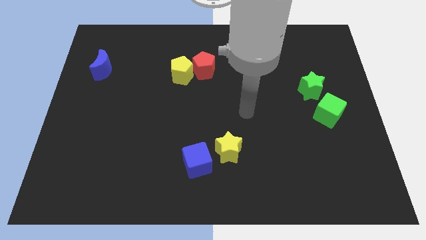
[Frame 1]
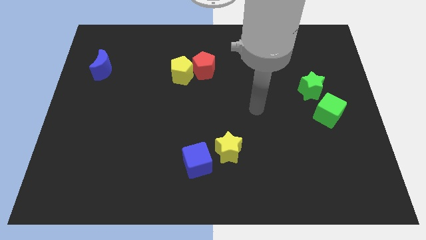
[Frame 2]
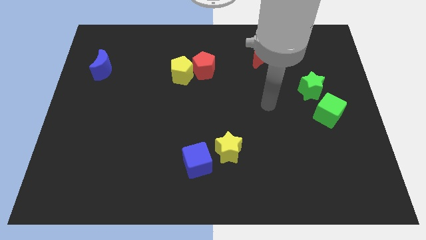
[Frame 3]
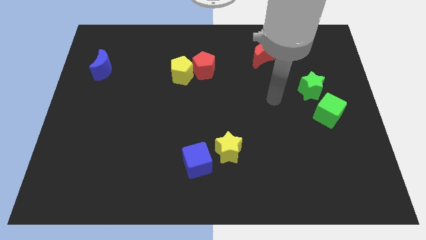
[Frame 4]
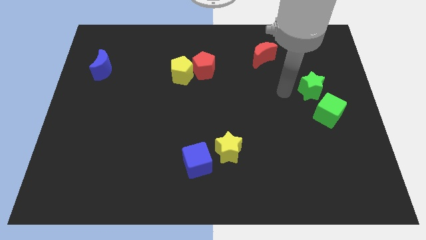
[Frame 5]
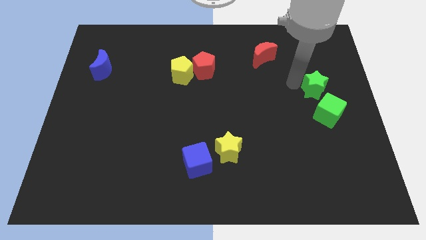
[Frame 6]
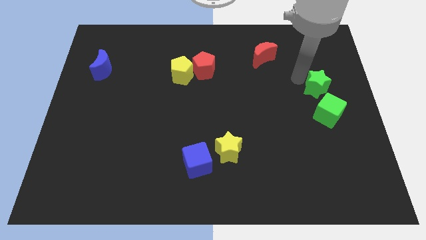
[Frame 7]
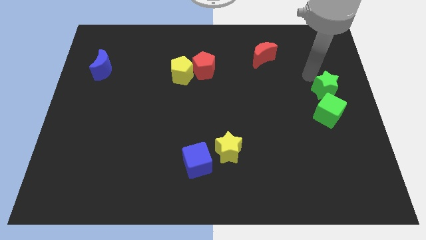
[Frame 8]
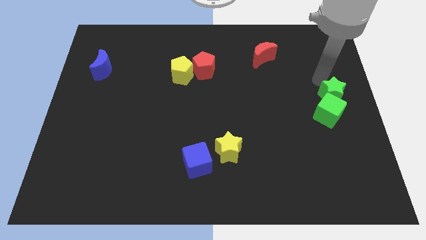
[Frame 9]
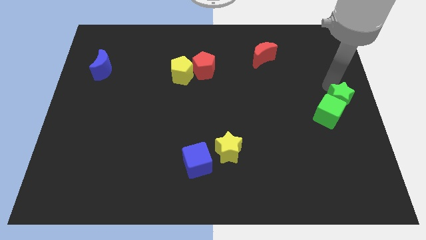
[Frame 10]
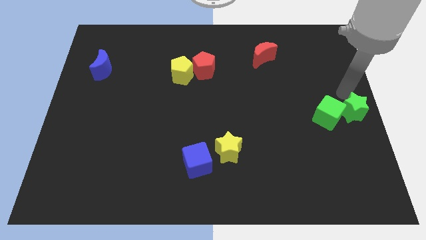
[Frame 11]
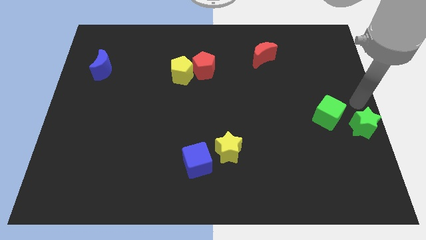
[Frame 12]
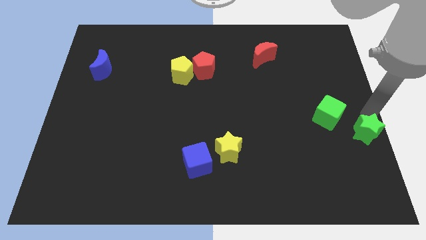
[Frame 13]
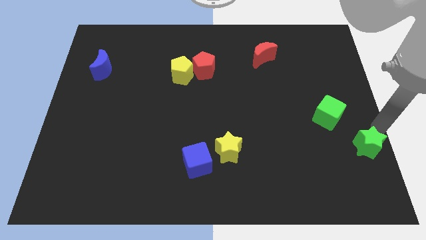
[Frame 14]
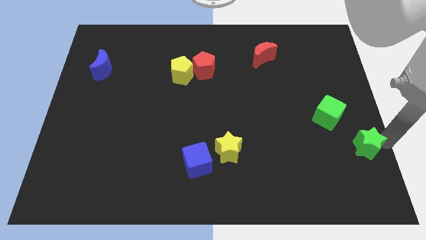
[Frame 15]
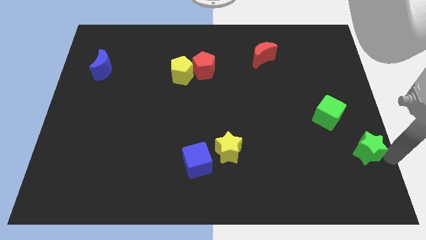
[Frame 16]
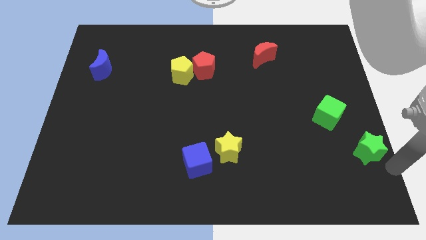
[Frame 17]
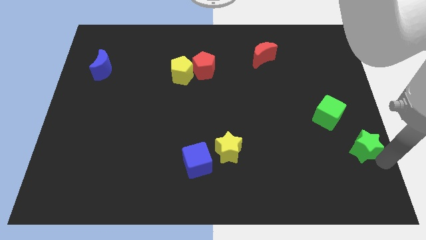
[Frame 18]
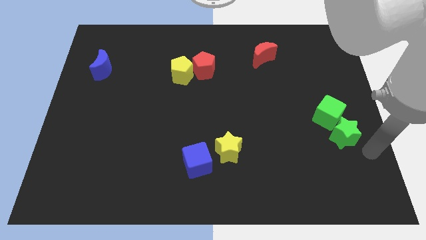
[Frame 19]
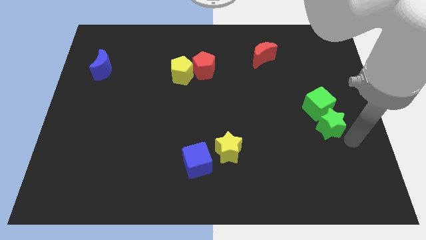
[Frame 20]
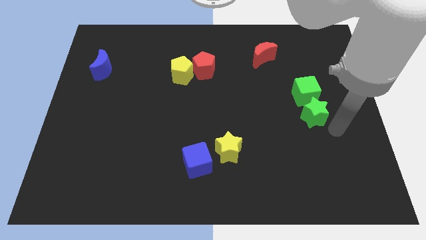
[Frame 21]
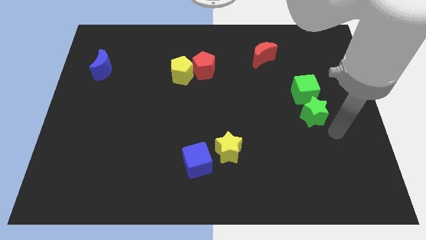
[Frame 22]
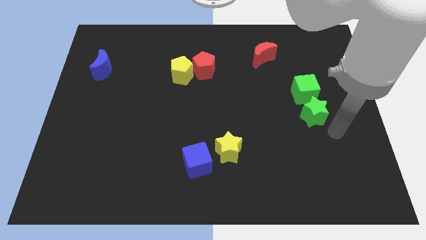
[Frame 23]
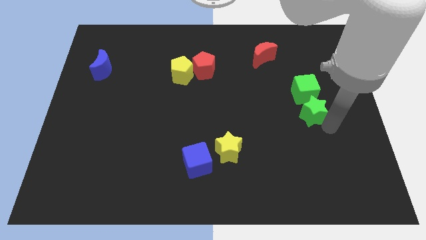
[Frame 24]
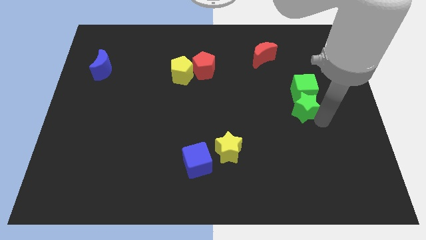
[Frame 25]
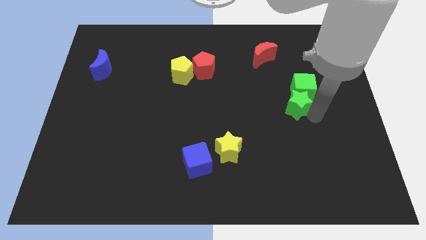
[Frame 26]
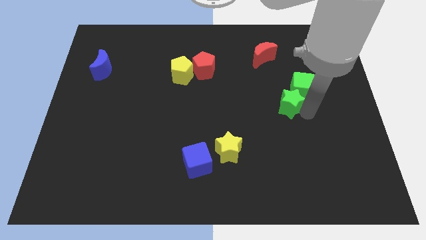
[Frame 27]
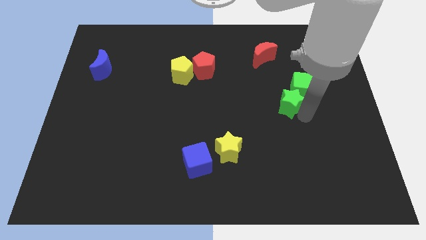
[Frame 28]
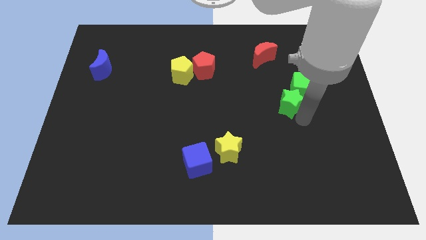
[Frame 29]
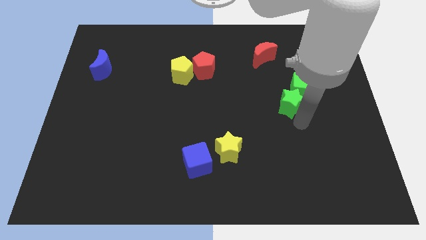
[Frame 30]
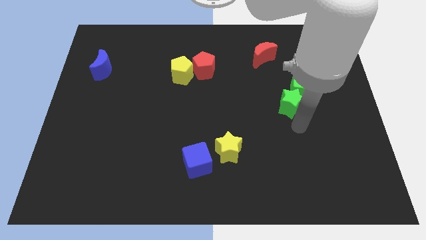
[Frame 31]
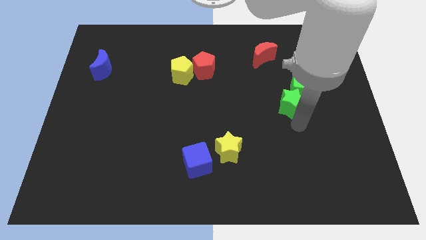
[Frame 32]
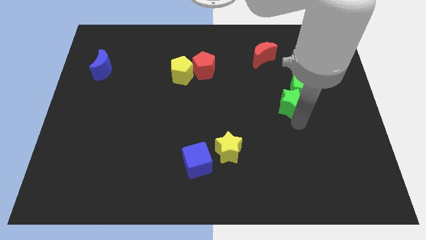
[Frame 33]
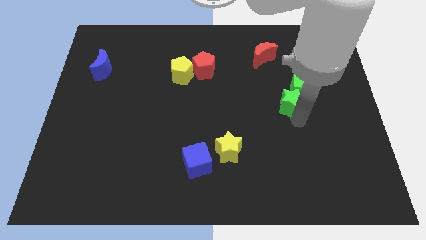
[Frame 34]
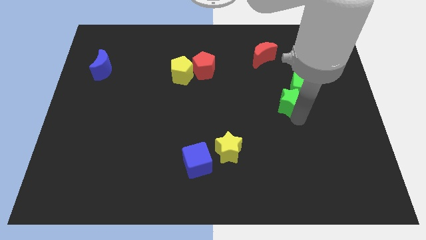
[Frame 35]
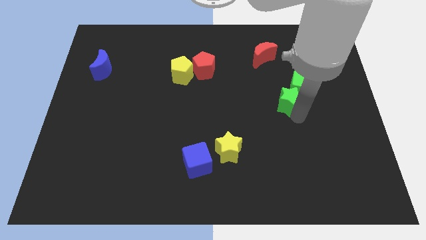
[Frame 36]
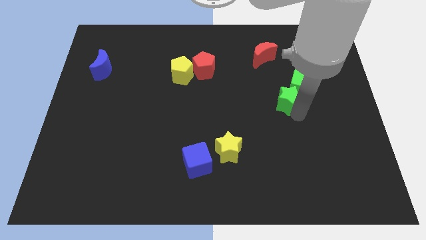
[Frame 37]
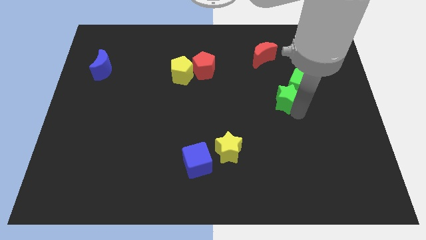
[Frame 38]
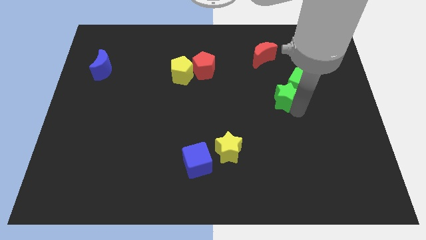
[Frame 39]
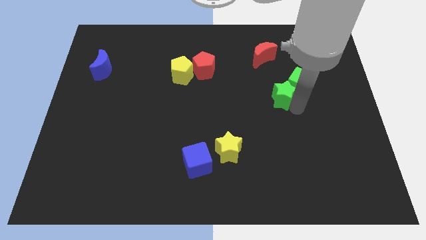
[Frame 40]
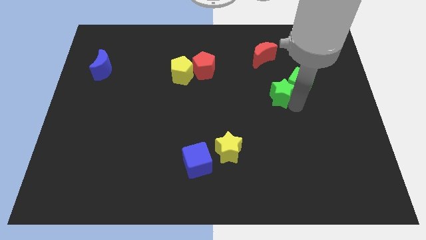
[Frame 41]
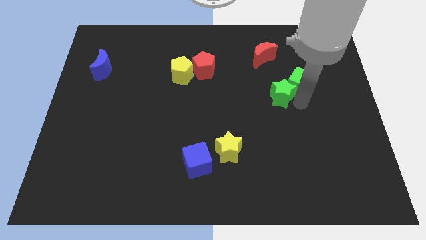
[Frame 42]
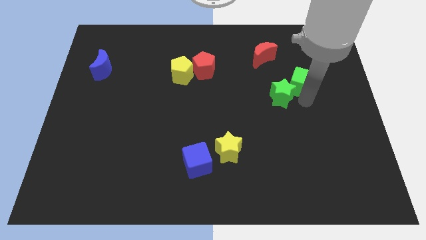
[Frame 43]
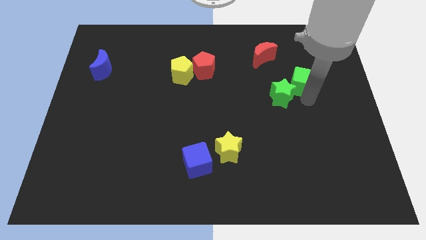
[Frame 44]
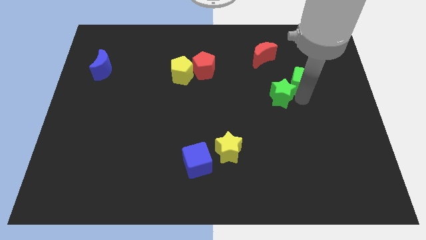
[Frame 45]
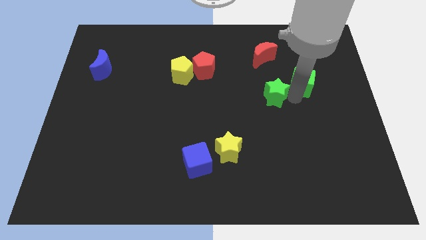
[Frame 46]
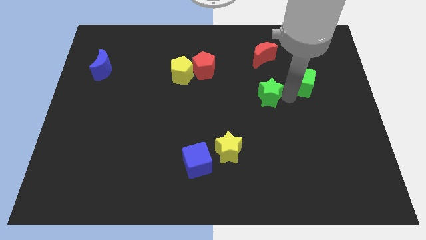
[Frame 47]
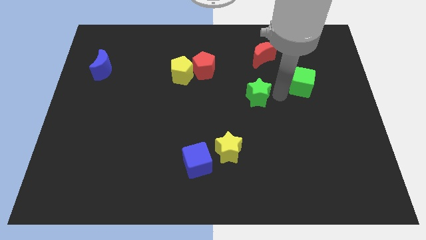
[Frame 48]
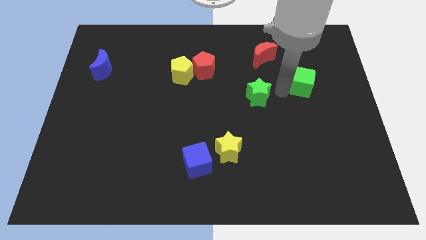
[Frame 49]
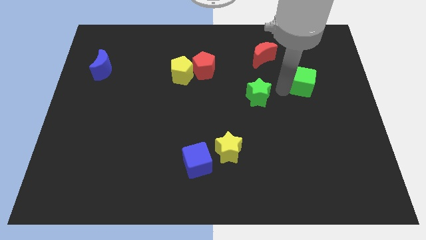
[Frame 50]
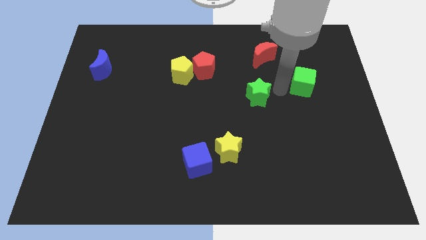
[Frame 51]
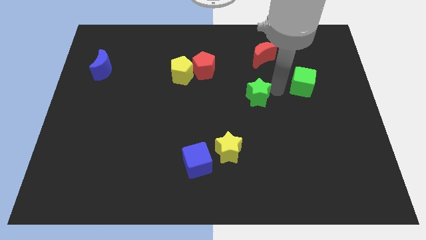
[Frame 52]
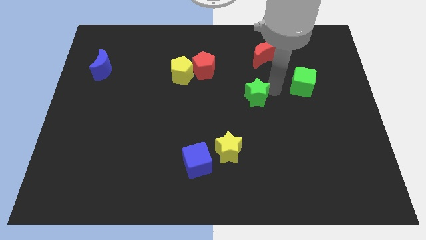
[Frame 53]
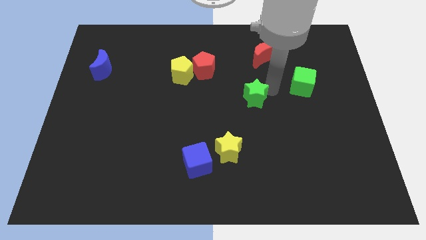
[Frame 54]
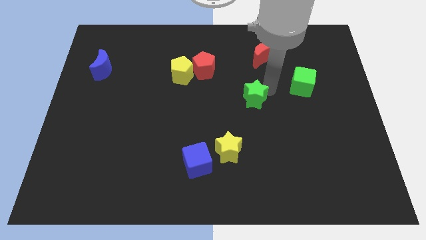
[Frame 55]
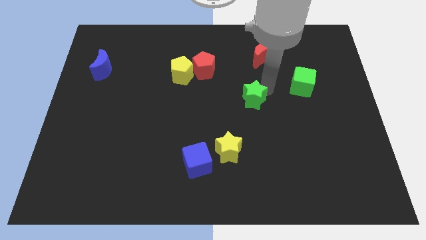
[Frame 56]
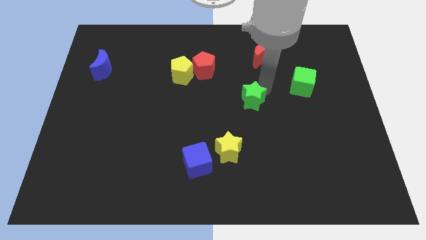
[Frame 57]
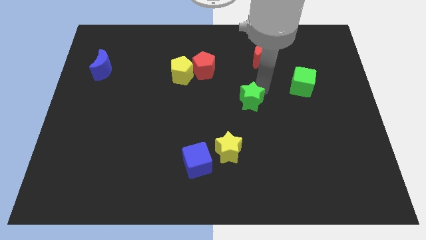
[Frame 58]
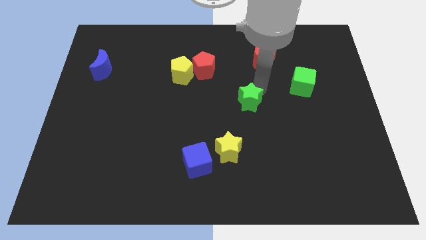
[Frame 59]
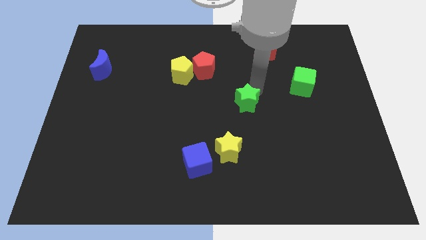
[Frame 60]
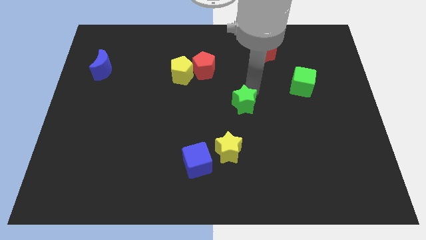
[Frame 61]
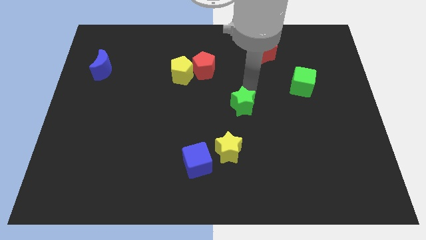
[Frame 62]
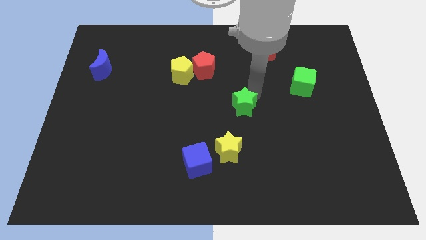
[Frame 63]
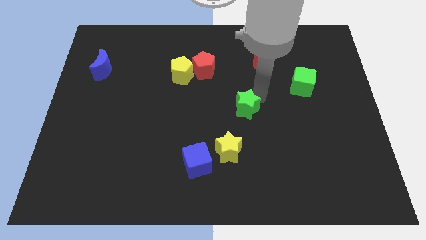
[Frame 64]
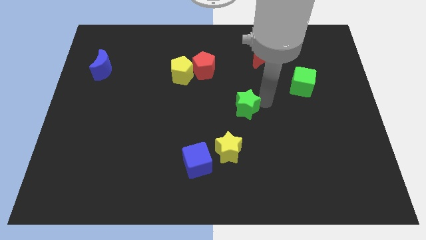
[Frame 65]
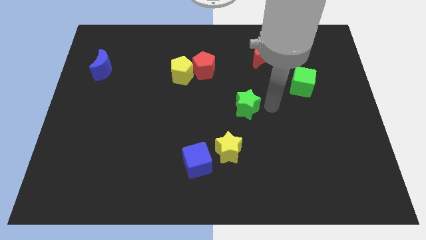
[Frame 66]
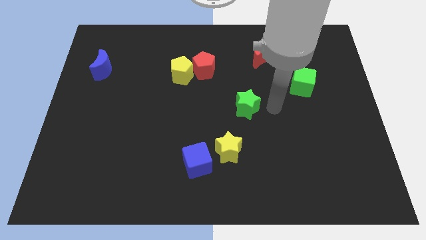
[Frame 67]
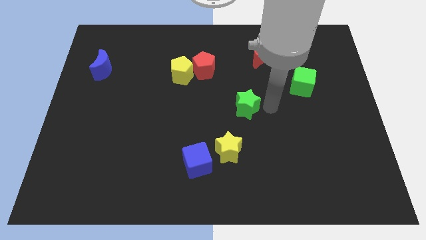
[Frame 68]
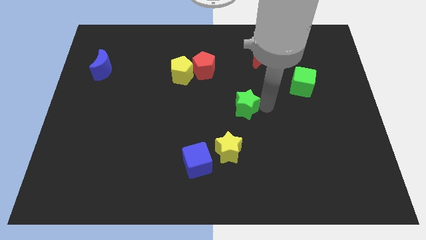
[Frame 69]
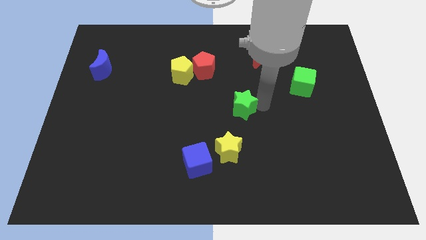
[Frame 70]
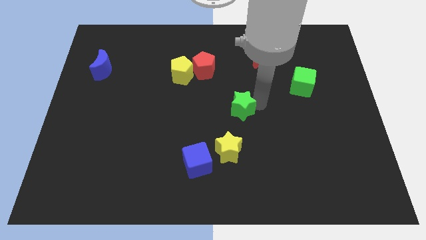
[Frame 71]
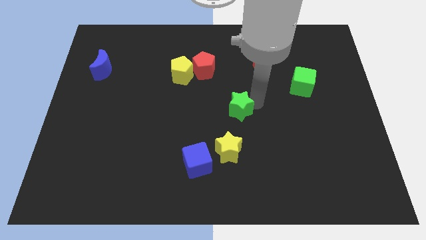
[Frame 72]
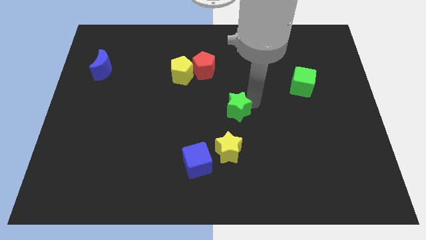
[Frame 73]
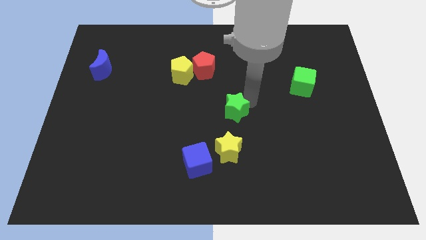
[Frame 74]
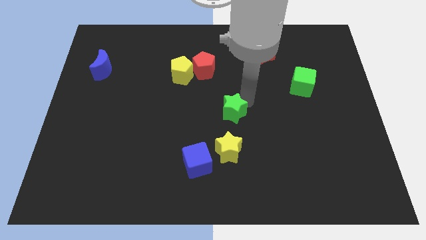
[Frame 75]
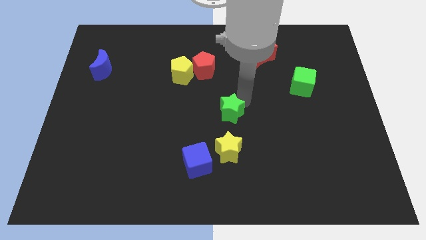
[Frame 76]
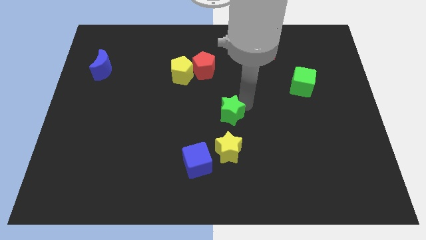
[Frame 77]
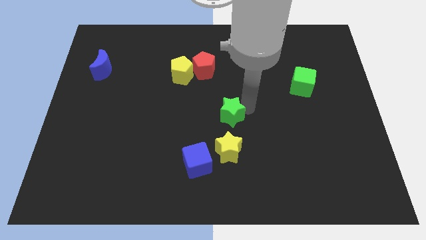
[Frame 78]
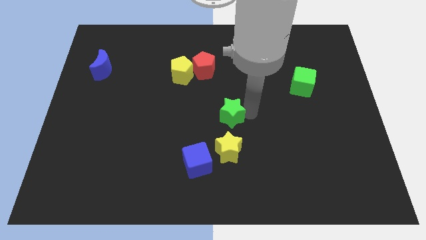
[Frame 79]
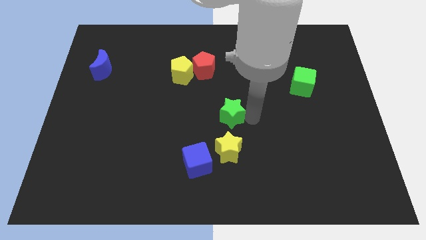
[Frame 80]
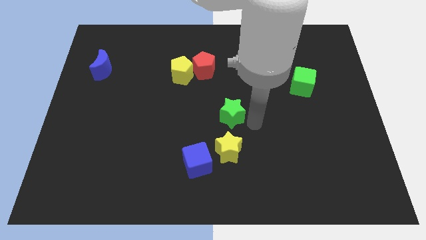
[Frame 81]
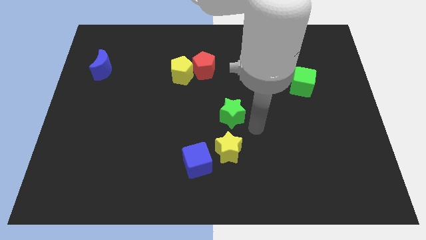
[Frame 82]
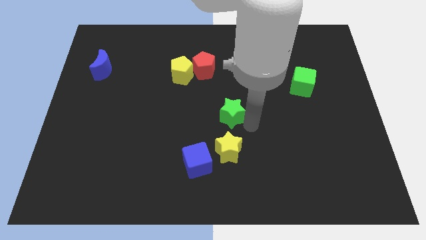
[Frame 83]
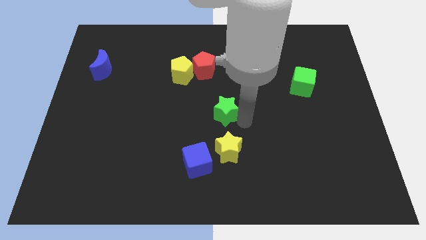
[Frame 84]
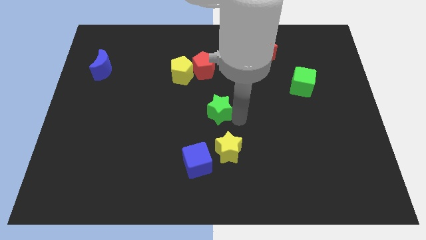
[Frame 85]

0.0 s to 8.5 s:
slide the green star to the left
